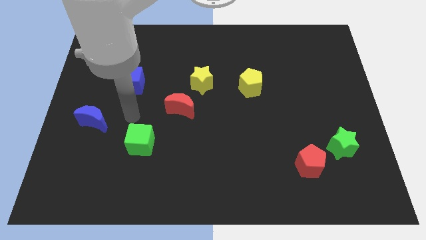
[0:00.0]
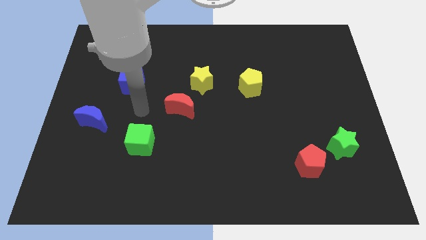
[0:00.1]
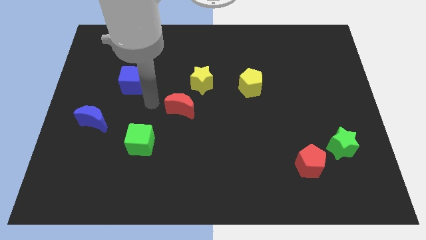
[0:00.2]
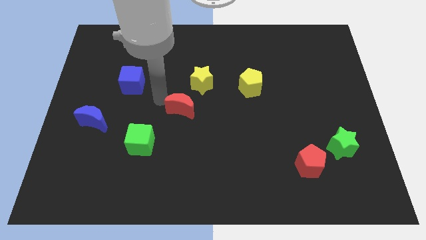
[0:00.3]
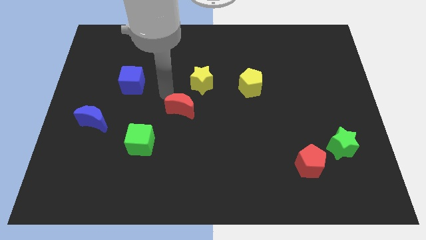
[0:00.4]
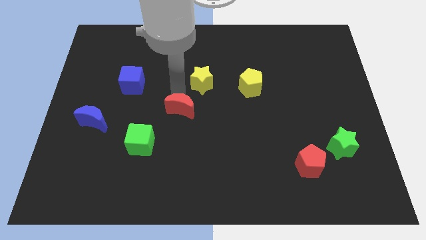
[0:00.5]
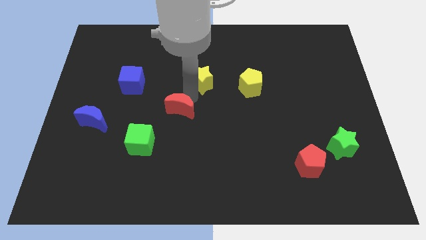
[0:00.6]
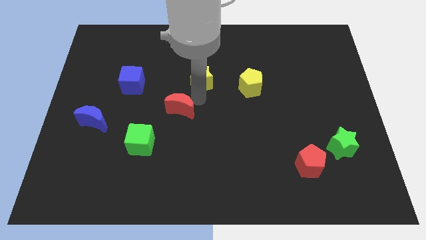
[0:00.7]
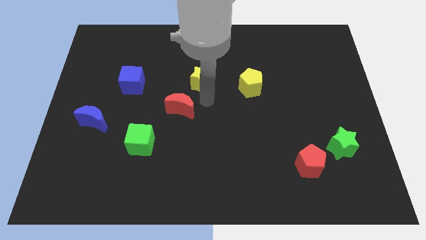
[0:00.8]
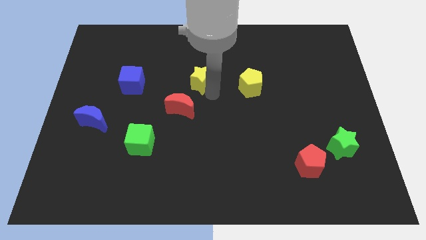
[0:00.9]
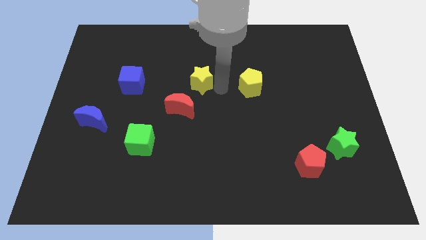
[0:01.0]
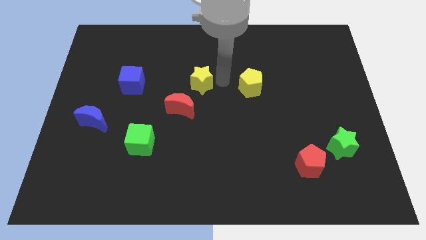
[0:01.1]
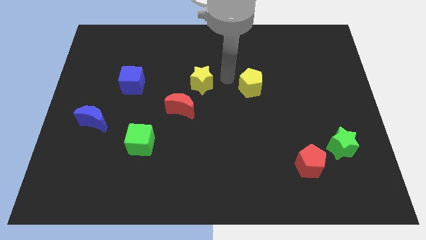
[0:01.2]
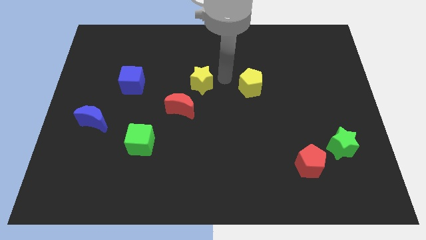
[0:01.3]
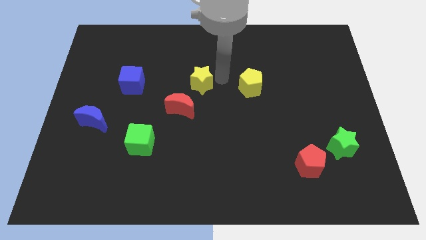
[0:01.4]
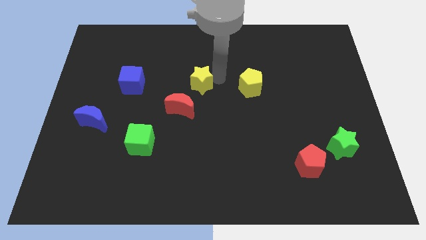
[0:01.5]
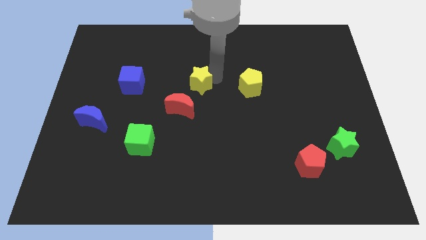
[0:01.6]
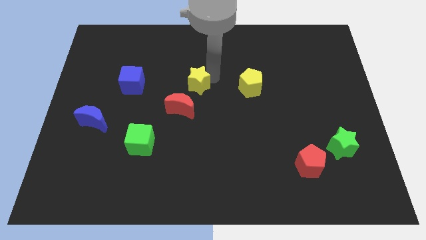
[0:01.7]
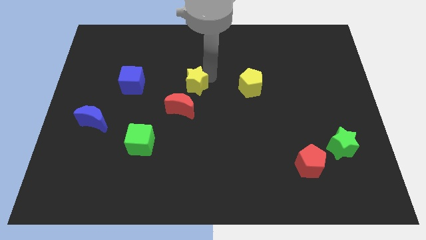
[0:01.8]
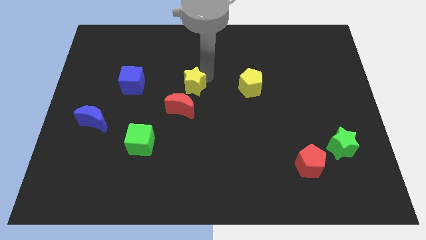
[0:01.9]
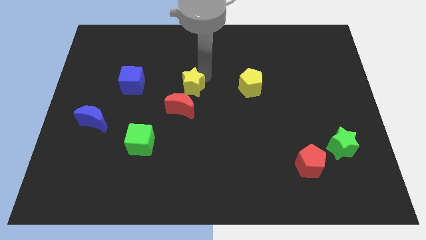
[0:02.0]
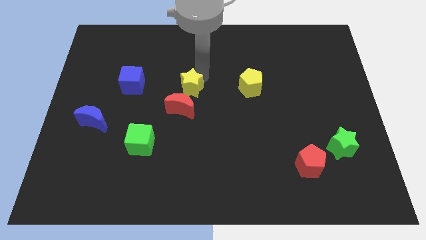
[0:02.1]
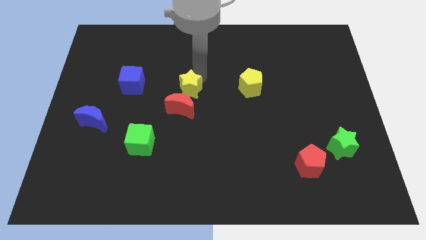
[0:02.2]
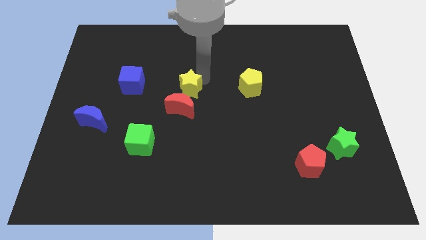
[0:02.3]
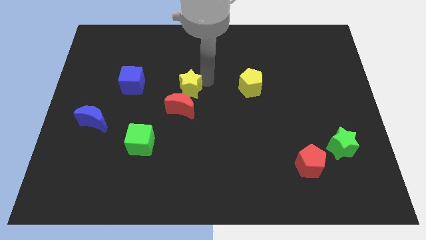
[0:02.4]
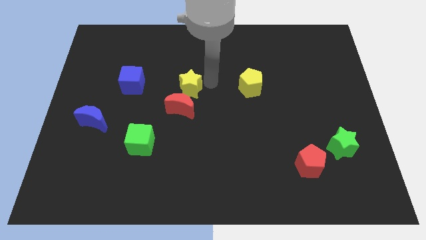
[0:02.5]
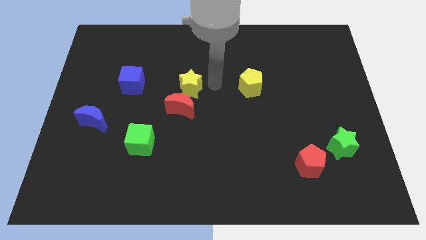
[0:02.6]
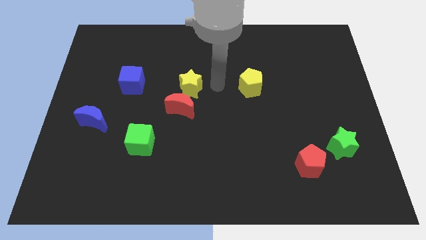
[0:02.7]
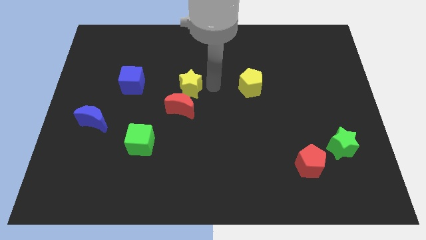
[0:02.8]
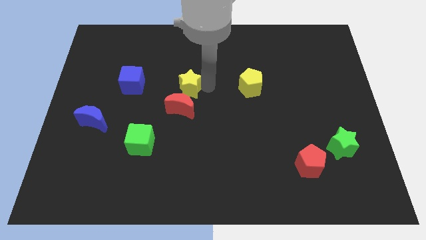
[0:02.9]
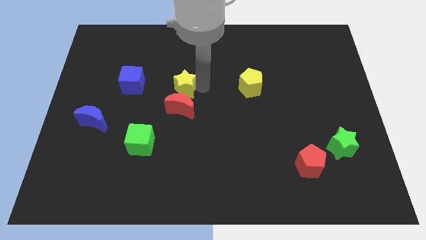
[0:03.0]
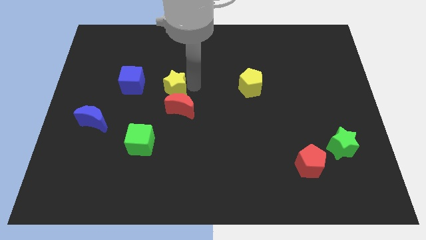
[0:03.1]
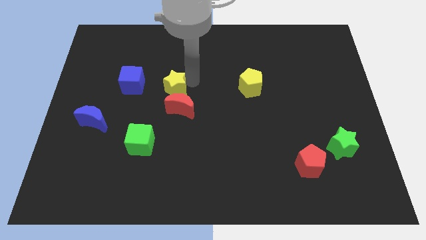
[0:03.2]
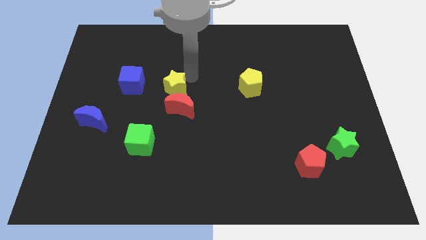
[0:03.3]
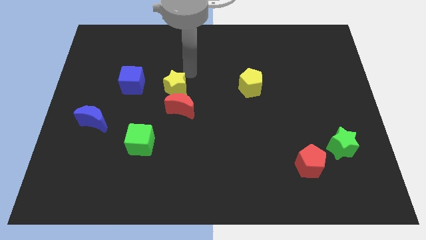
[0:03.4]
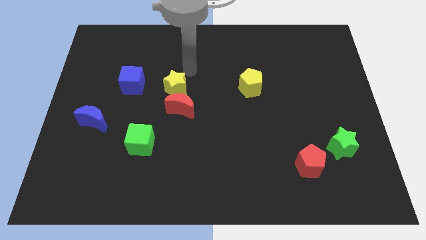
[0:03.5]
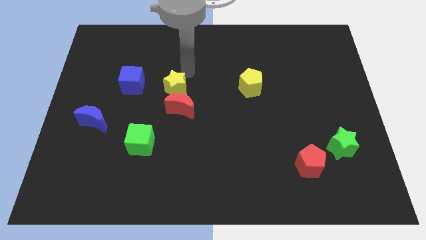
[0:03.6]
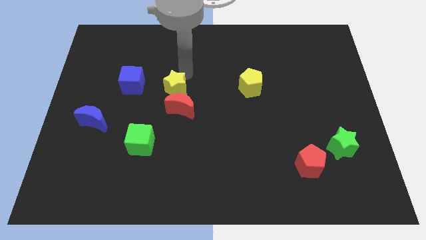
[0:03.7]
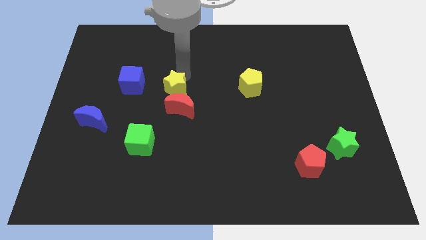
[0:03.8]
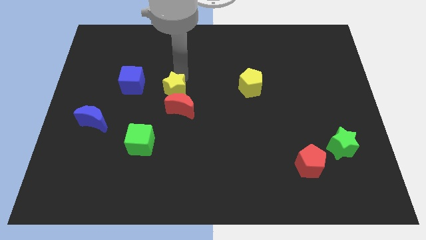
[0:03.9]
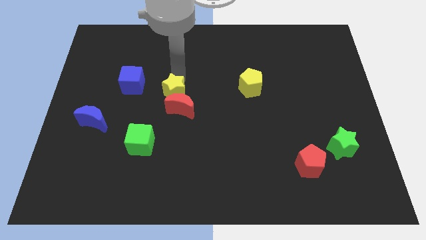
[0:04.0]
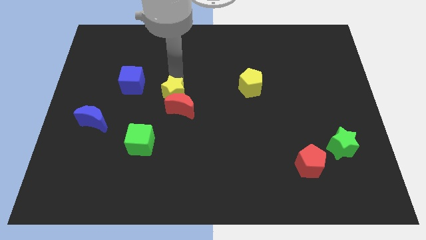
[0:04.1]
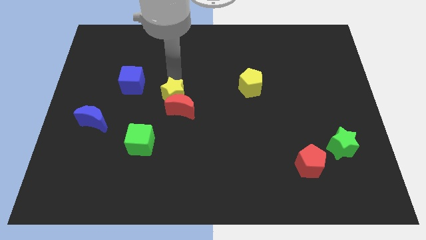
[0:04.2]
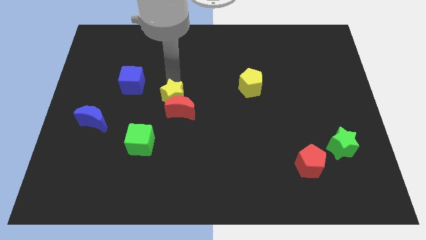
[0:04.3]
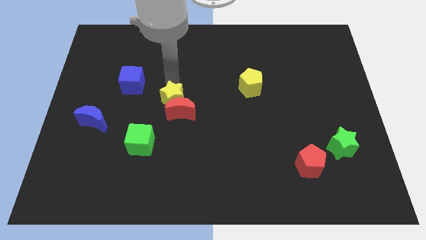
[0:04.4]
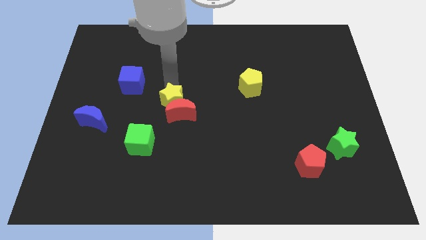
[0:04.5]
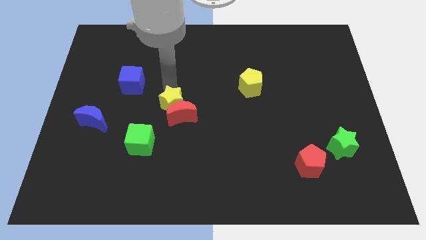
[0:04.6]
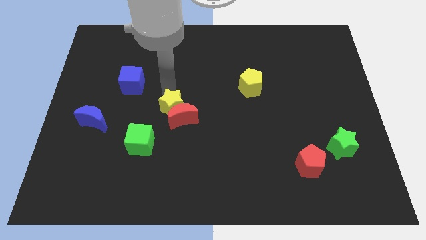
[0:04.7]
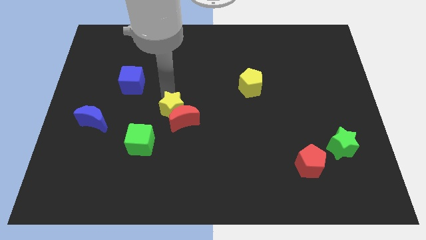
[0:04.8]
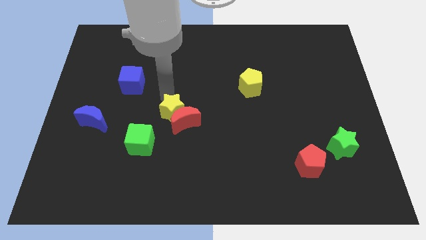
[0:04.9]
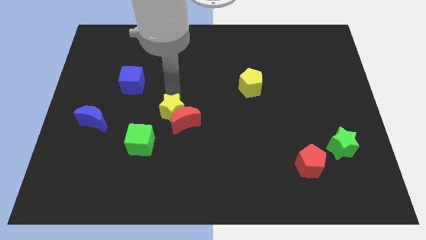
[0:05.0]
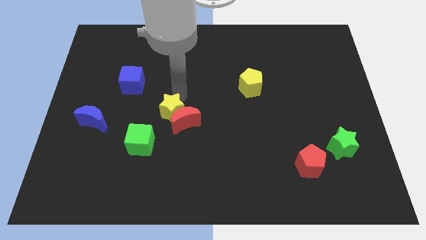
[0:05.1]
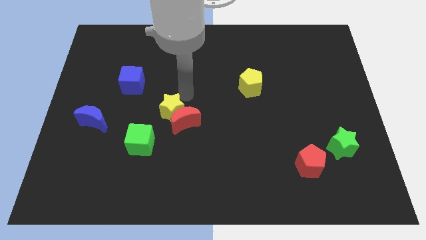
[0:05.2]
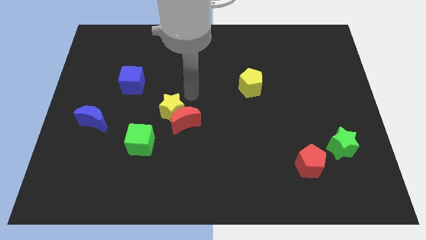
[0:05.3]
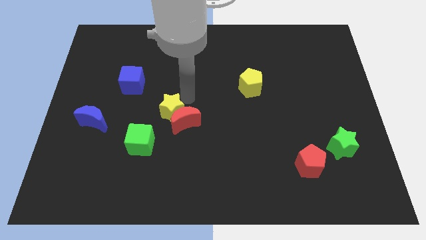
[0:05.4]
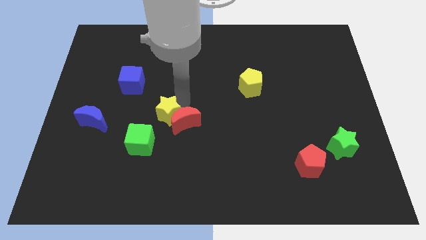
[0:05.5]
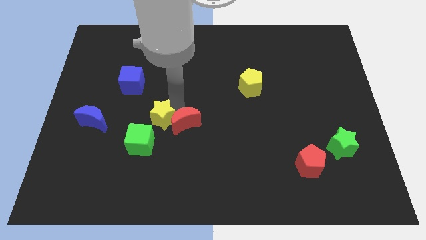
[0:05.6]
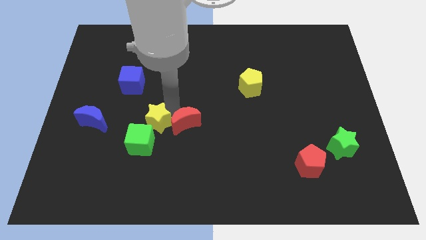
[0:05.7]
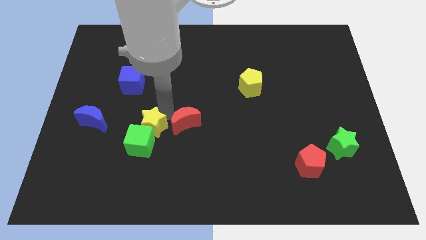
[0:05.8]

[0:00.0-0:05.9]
push the yellow star towards the green cube

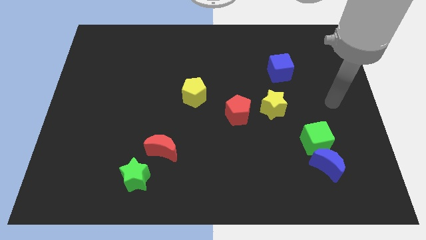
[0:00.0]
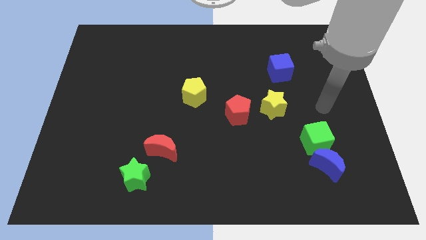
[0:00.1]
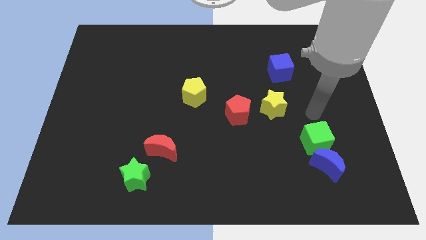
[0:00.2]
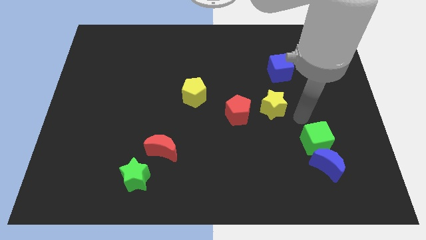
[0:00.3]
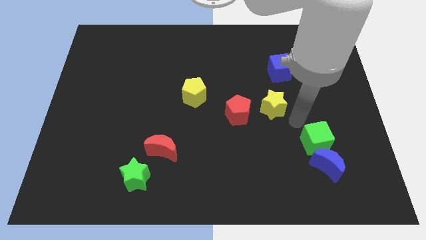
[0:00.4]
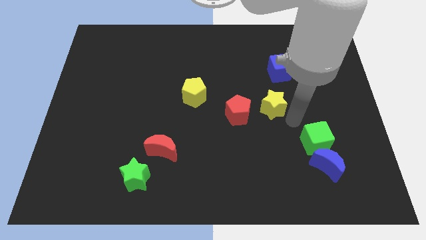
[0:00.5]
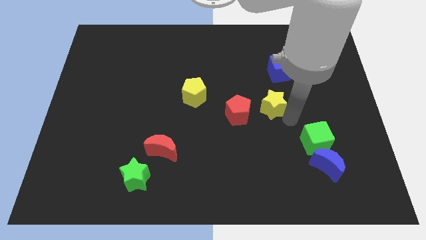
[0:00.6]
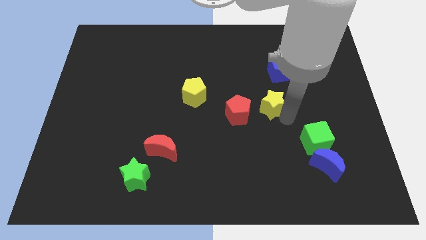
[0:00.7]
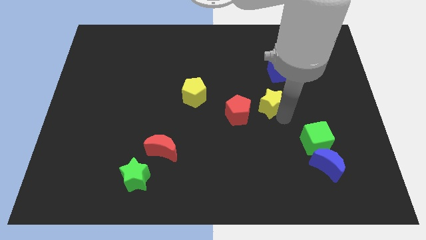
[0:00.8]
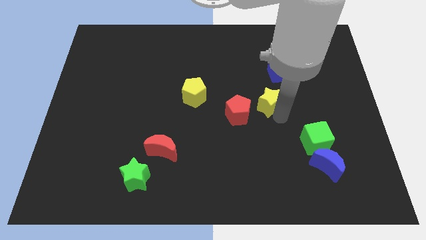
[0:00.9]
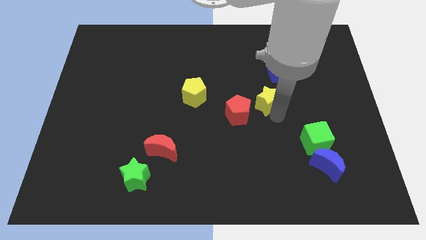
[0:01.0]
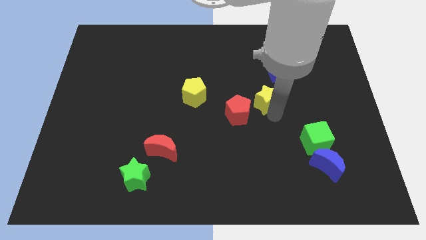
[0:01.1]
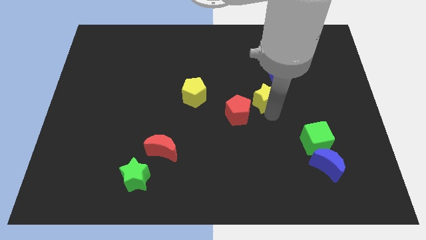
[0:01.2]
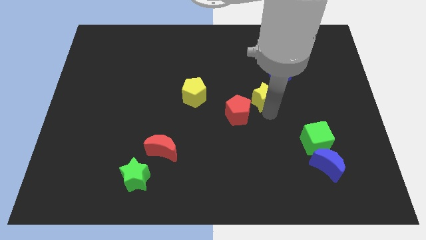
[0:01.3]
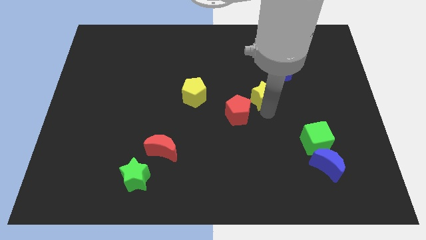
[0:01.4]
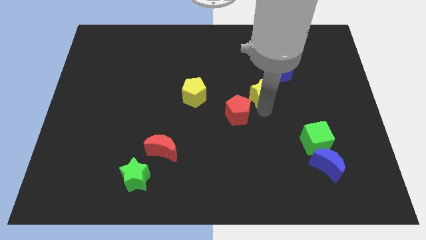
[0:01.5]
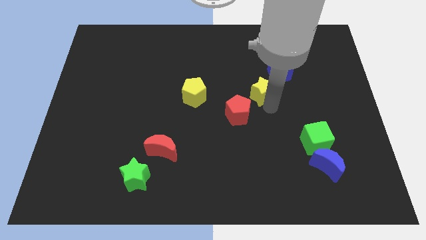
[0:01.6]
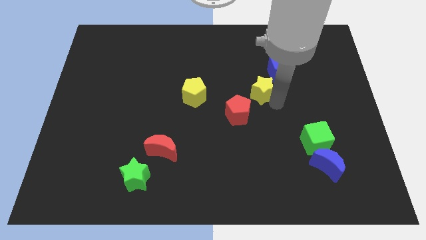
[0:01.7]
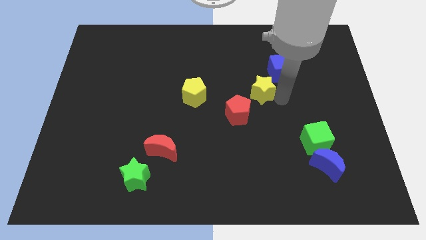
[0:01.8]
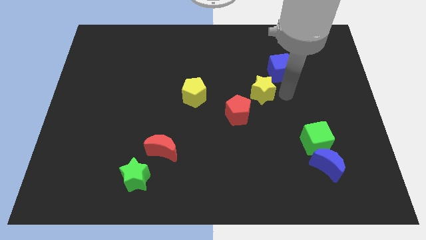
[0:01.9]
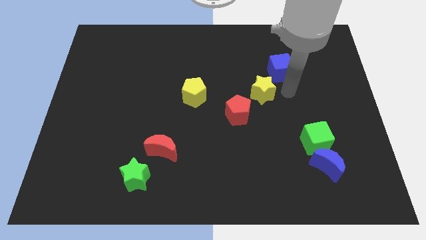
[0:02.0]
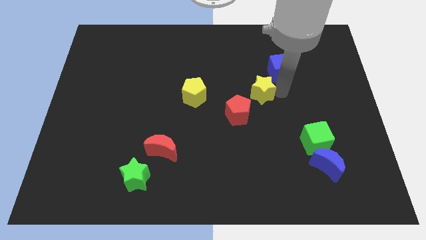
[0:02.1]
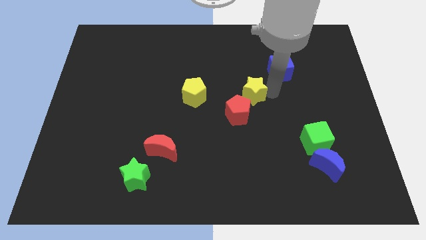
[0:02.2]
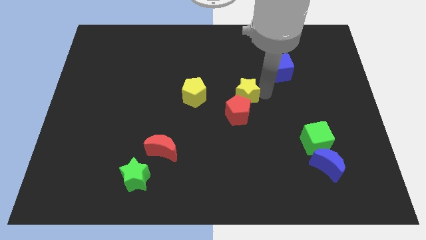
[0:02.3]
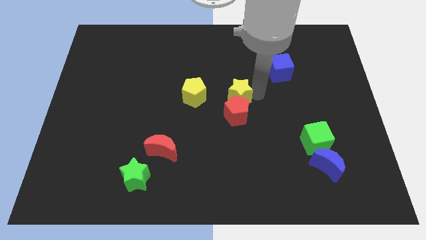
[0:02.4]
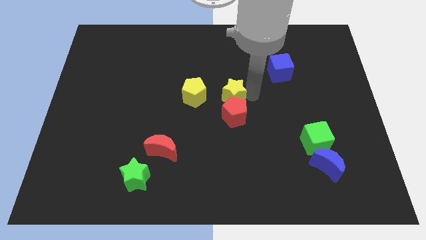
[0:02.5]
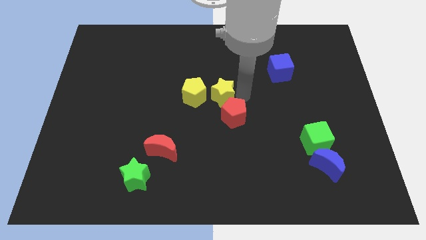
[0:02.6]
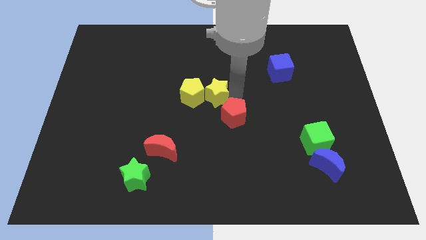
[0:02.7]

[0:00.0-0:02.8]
slide the yellow star close to the yellow pentagon

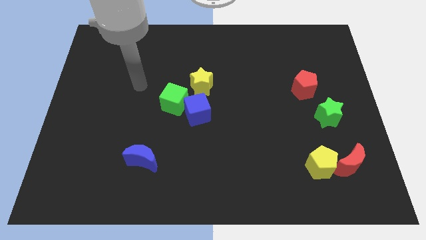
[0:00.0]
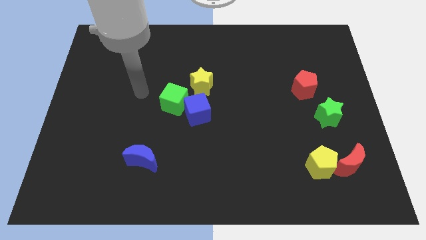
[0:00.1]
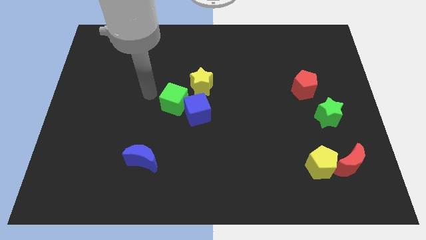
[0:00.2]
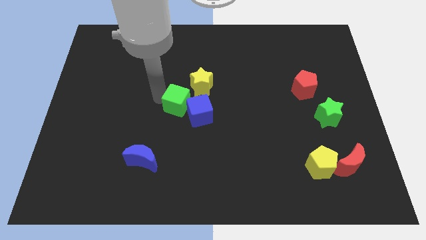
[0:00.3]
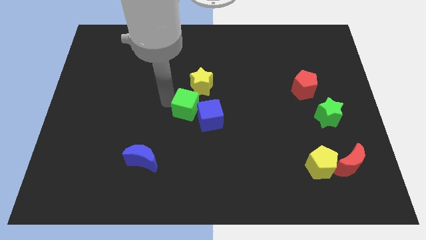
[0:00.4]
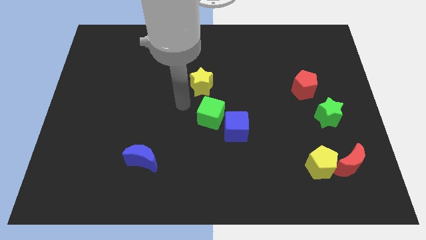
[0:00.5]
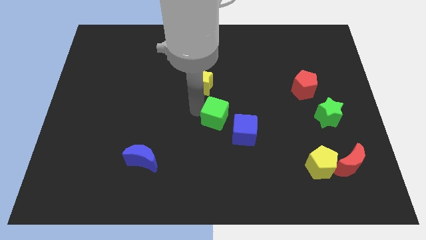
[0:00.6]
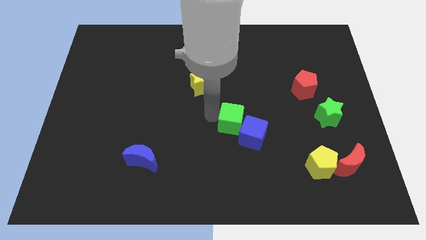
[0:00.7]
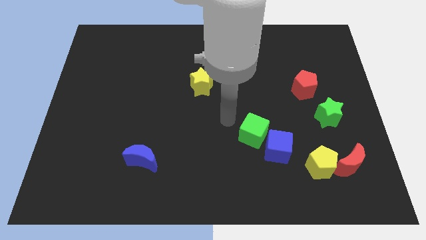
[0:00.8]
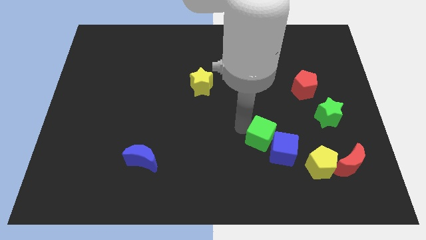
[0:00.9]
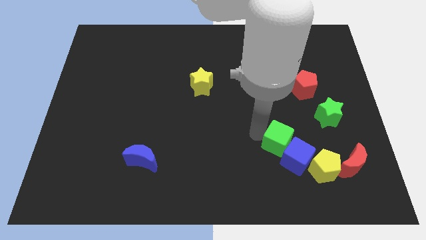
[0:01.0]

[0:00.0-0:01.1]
put the blue cube close to the yellow pentagon
